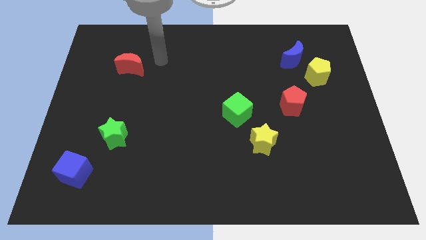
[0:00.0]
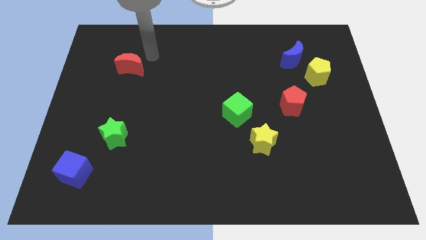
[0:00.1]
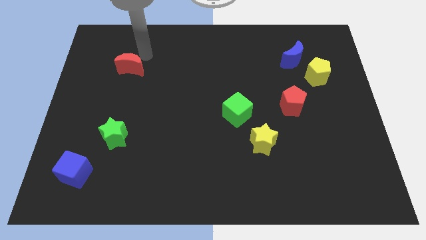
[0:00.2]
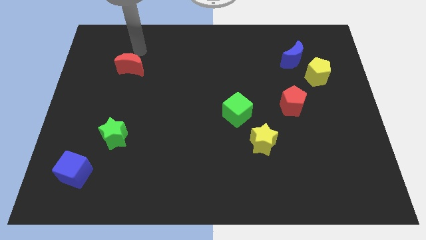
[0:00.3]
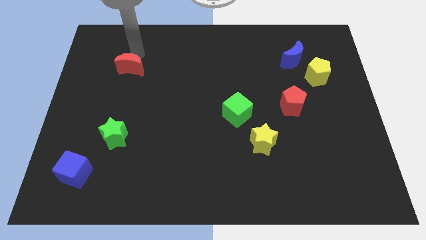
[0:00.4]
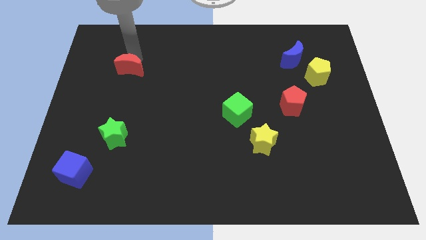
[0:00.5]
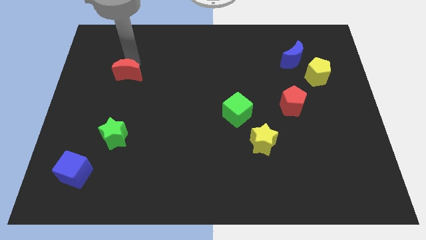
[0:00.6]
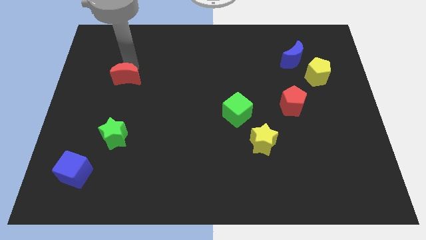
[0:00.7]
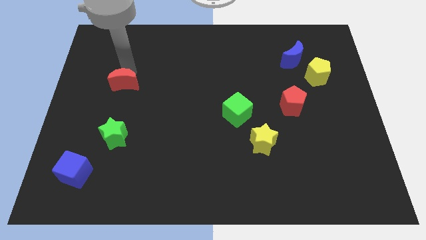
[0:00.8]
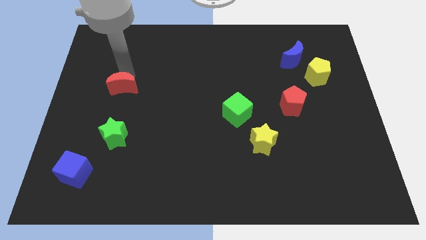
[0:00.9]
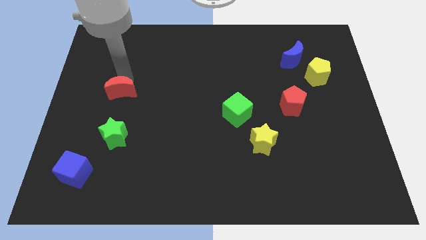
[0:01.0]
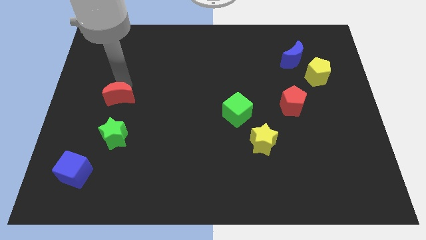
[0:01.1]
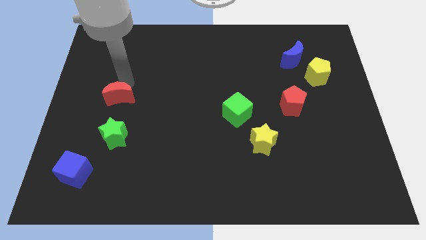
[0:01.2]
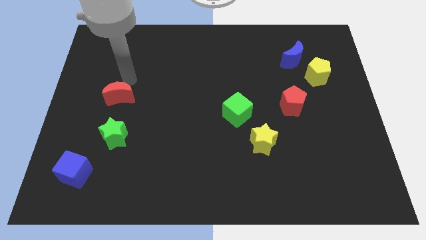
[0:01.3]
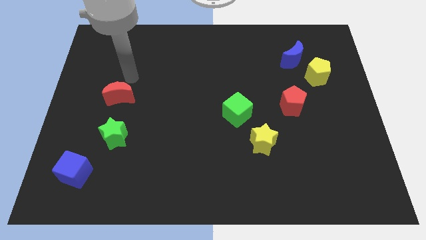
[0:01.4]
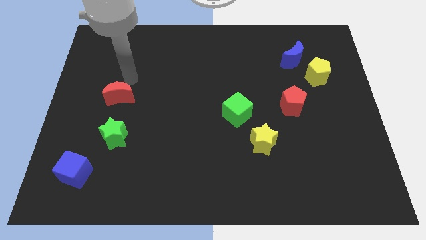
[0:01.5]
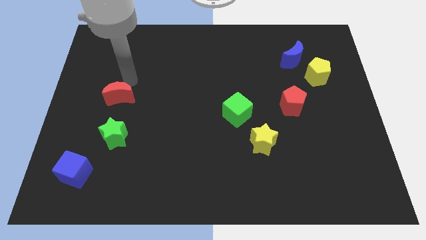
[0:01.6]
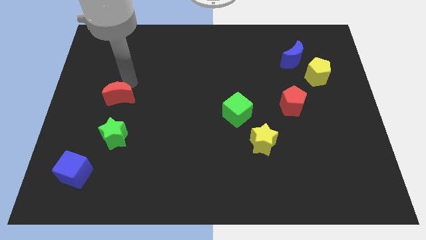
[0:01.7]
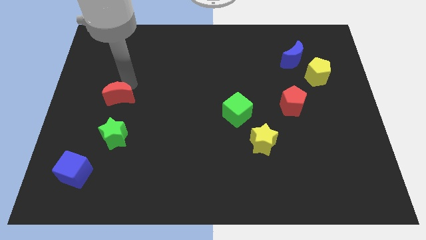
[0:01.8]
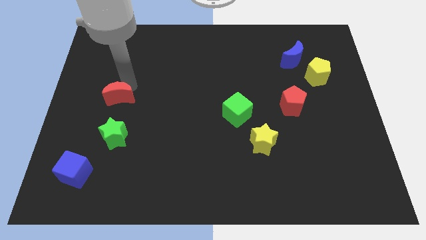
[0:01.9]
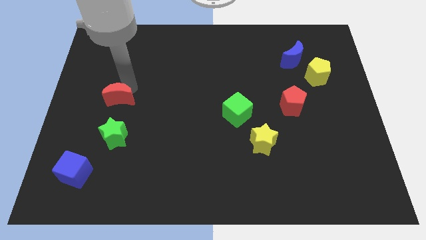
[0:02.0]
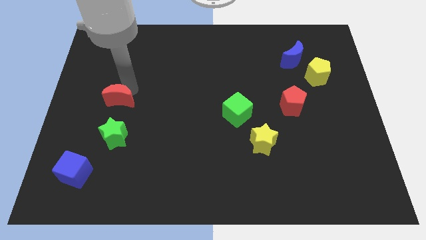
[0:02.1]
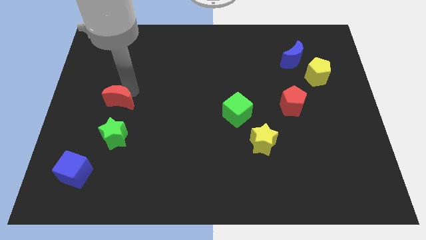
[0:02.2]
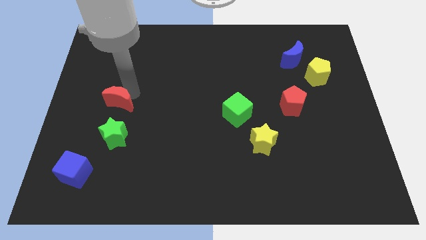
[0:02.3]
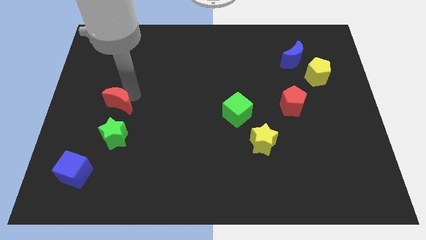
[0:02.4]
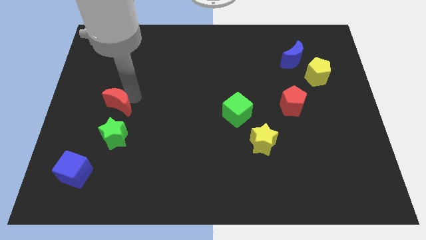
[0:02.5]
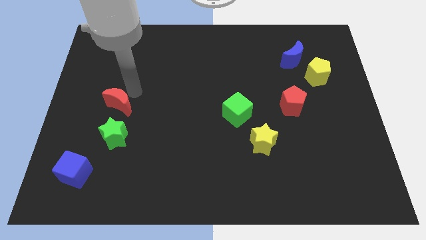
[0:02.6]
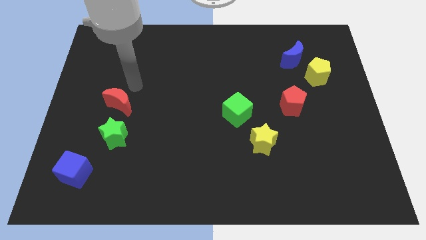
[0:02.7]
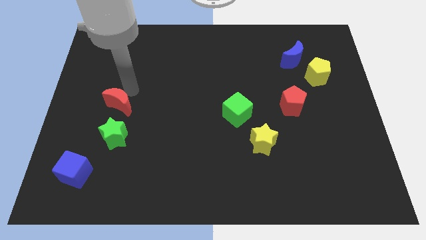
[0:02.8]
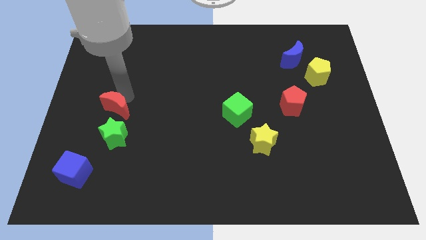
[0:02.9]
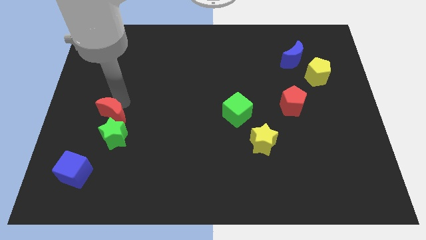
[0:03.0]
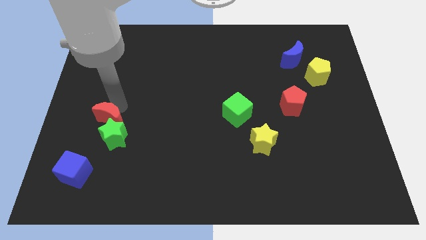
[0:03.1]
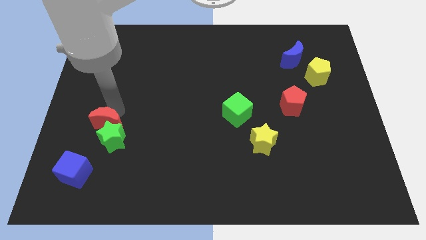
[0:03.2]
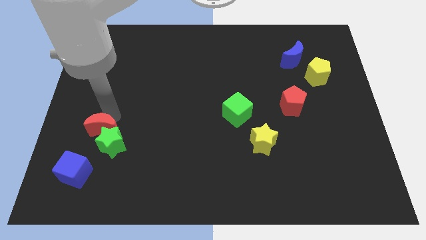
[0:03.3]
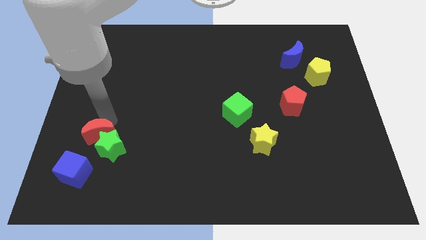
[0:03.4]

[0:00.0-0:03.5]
move the red moon downwards

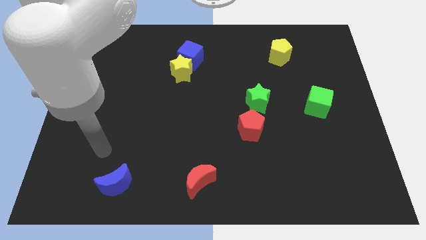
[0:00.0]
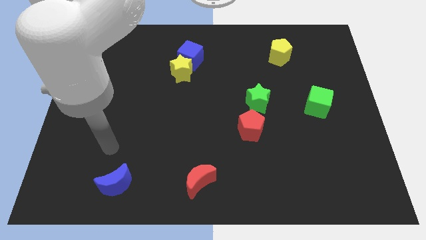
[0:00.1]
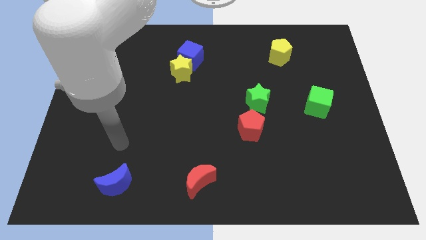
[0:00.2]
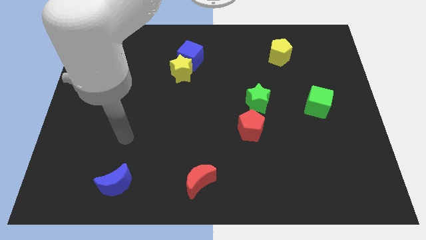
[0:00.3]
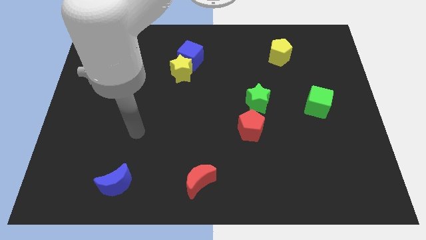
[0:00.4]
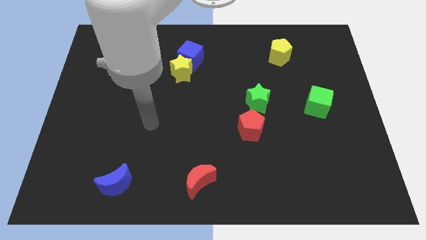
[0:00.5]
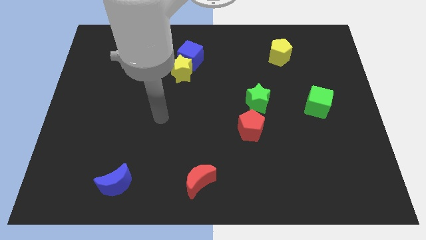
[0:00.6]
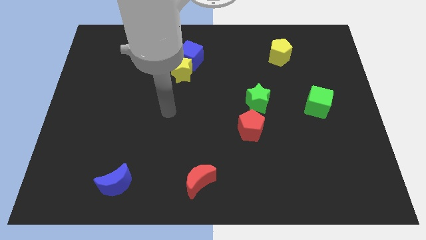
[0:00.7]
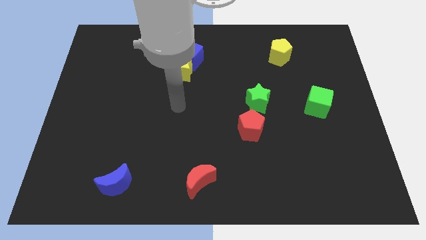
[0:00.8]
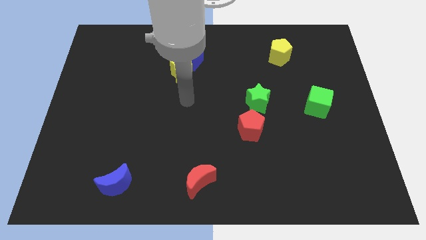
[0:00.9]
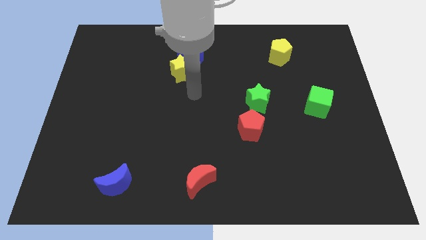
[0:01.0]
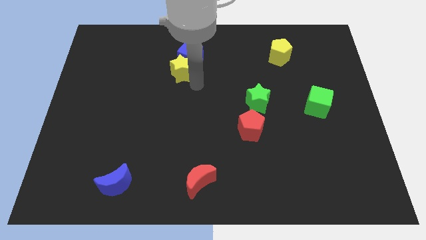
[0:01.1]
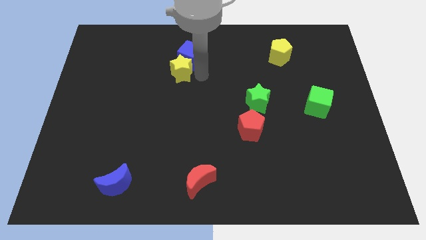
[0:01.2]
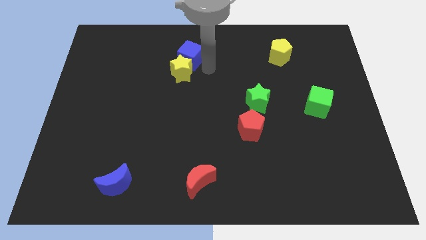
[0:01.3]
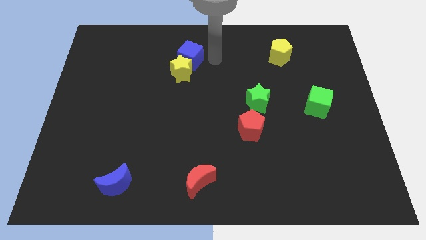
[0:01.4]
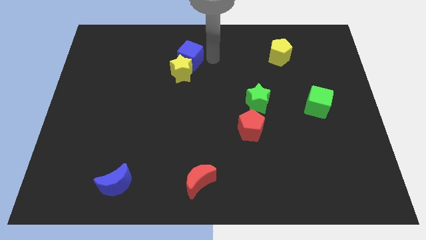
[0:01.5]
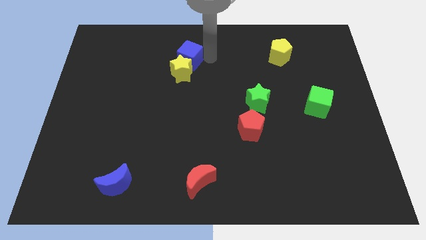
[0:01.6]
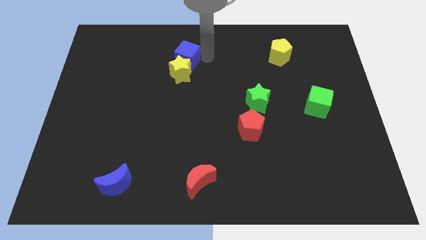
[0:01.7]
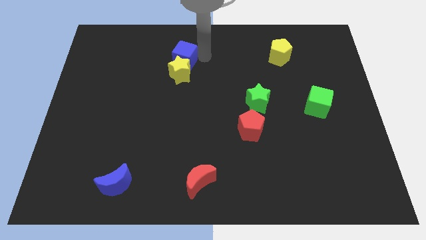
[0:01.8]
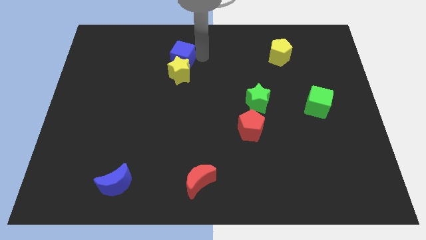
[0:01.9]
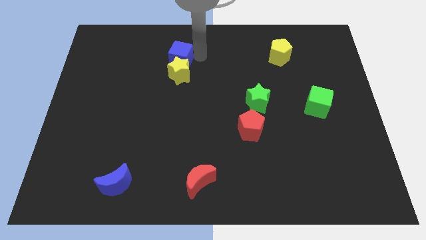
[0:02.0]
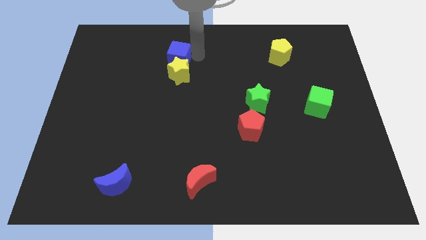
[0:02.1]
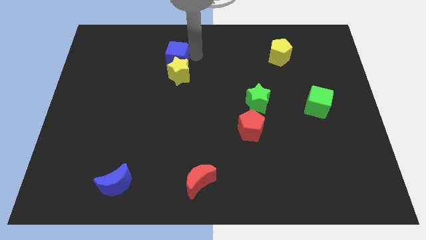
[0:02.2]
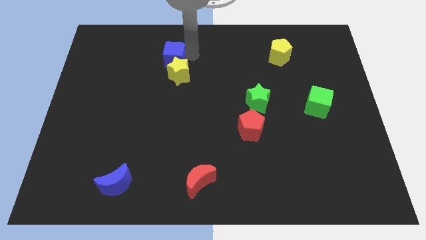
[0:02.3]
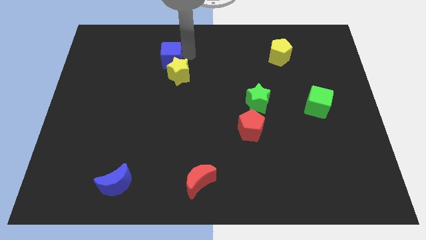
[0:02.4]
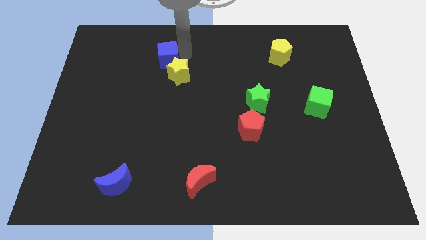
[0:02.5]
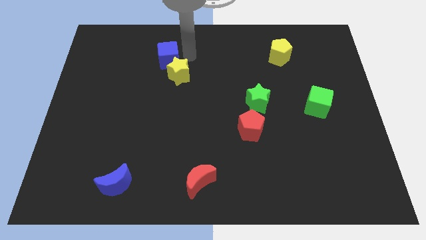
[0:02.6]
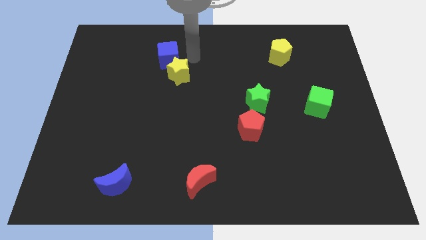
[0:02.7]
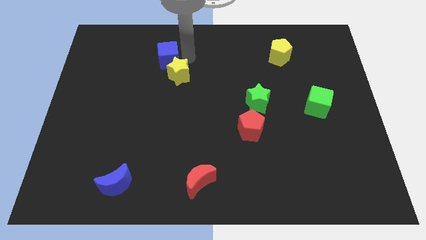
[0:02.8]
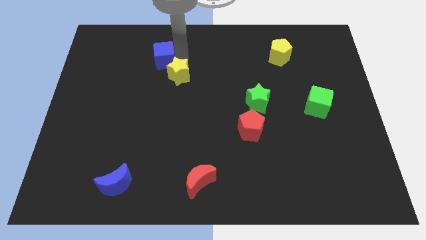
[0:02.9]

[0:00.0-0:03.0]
move the blue cube slightly left

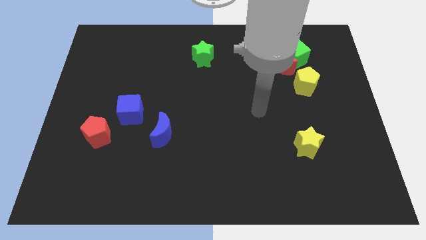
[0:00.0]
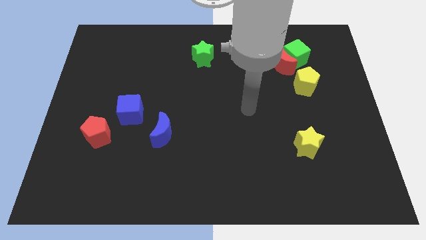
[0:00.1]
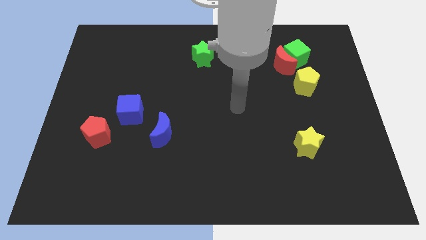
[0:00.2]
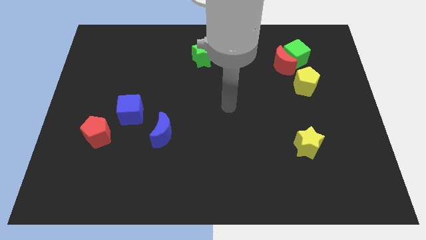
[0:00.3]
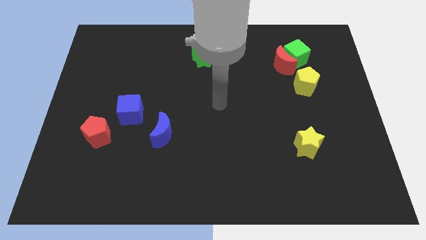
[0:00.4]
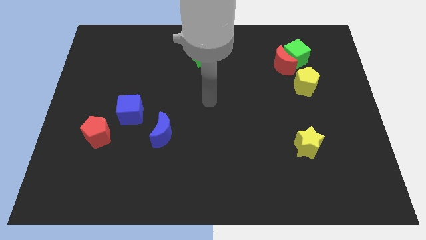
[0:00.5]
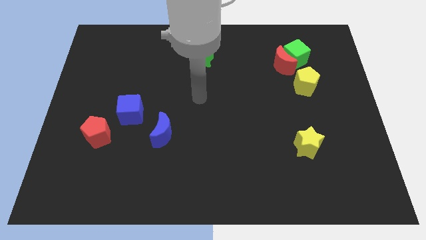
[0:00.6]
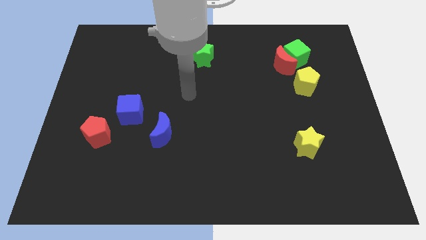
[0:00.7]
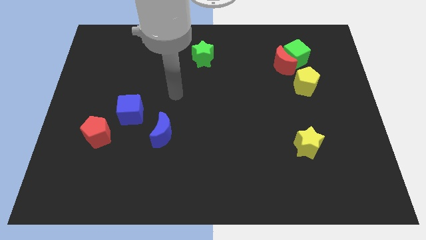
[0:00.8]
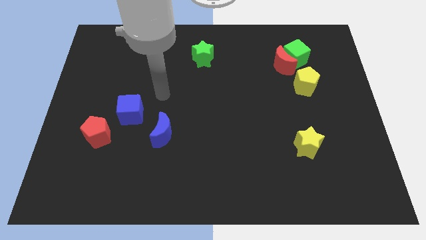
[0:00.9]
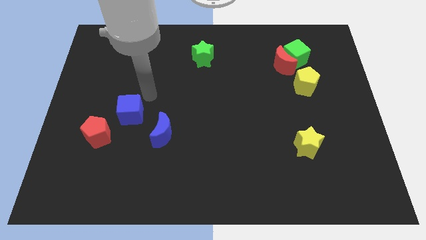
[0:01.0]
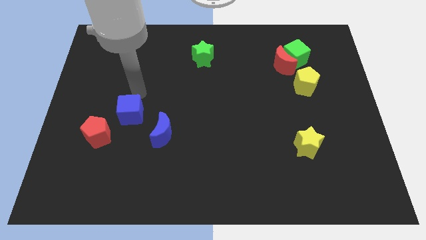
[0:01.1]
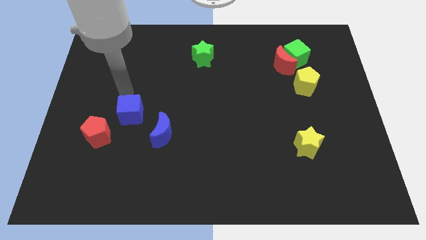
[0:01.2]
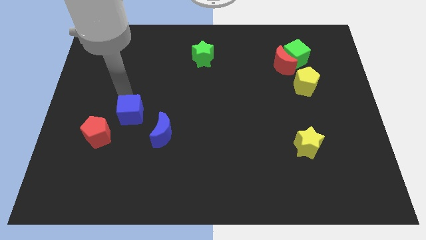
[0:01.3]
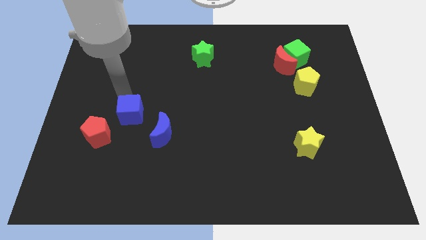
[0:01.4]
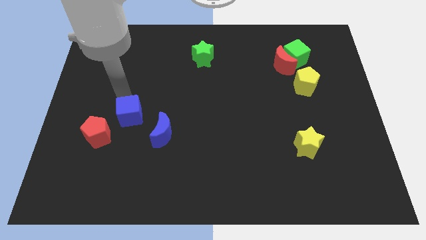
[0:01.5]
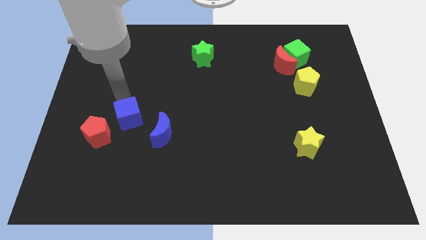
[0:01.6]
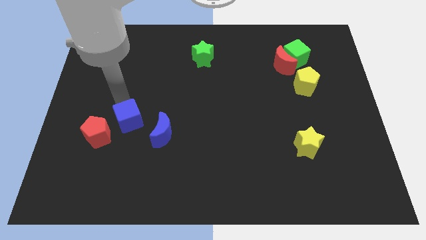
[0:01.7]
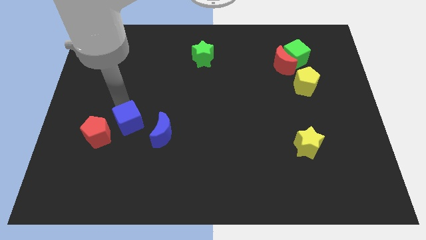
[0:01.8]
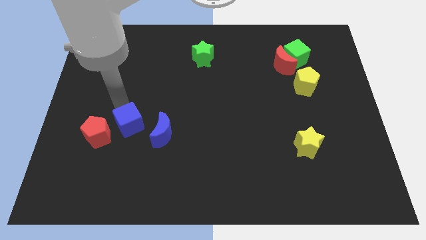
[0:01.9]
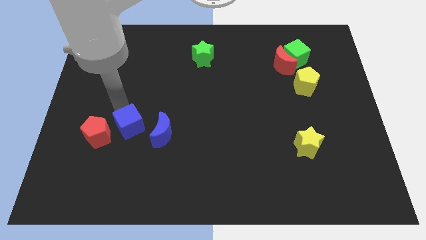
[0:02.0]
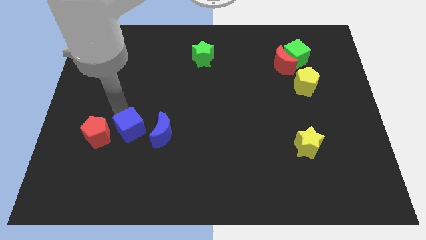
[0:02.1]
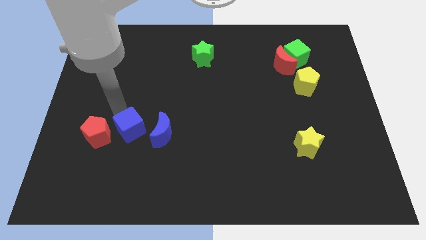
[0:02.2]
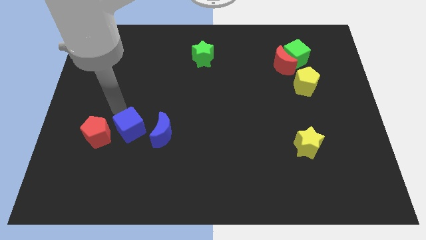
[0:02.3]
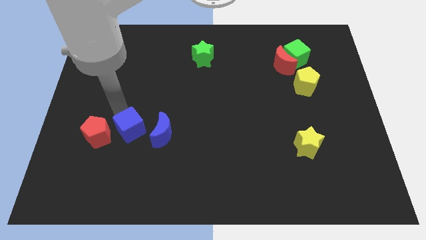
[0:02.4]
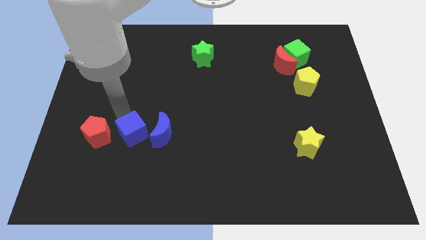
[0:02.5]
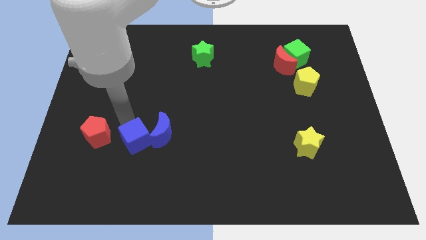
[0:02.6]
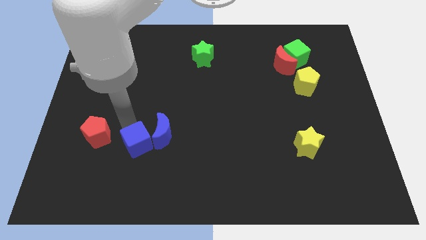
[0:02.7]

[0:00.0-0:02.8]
slide the blue cube slightly down and to the right
